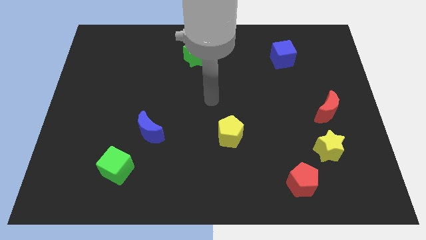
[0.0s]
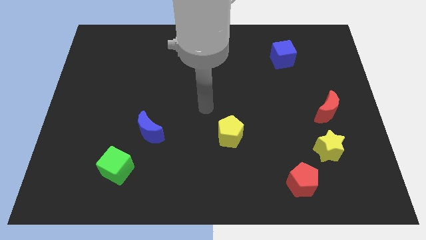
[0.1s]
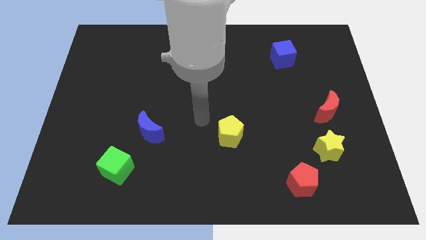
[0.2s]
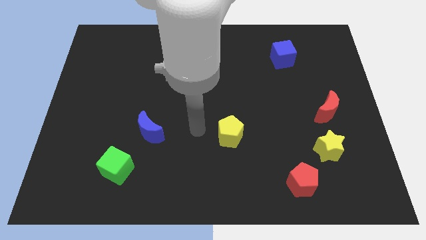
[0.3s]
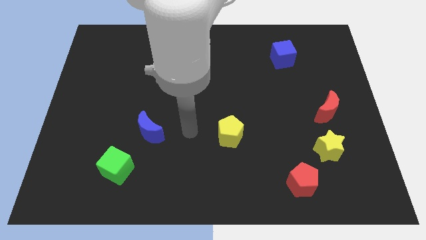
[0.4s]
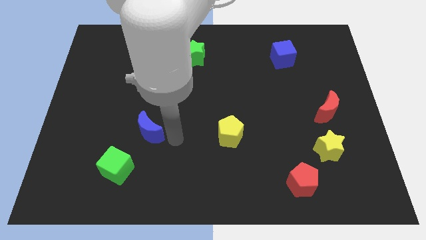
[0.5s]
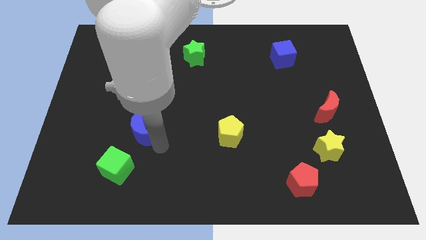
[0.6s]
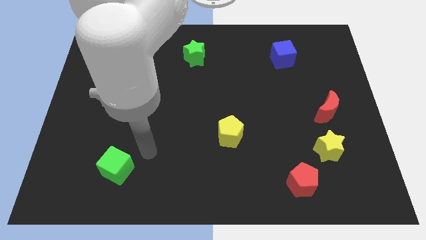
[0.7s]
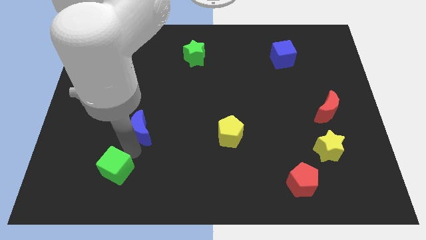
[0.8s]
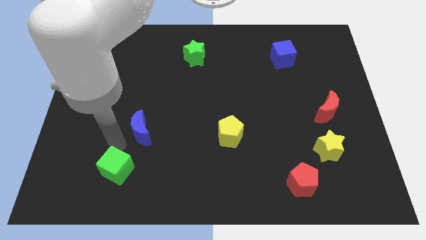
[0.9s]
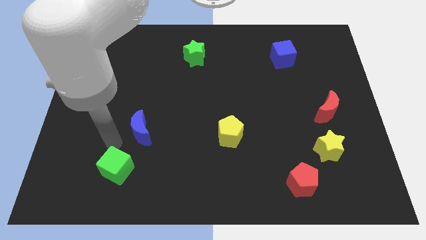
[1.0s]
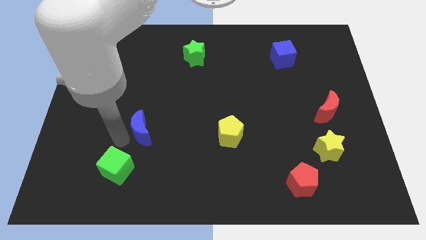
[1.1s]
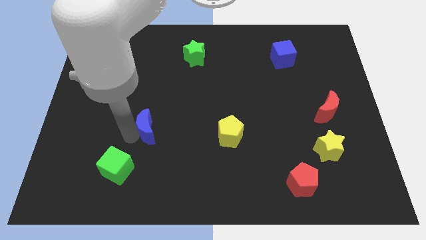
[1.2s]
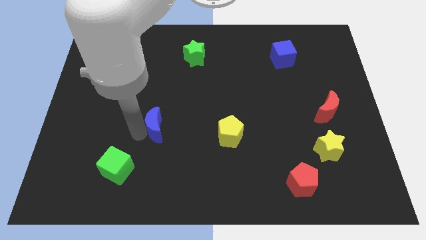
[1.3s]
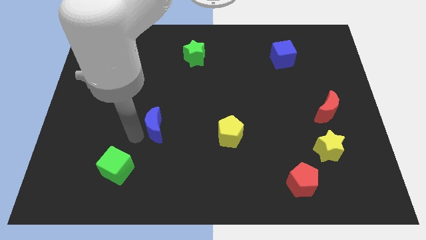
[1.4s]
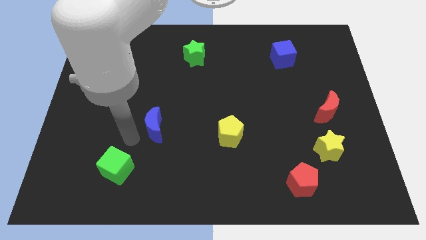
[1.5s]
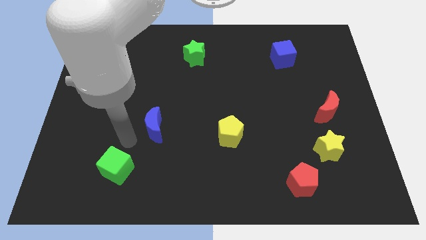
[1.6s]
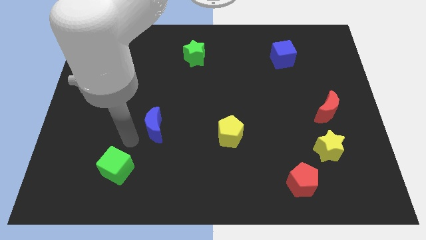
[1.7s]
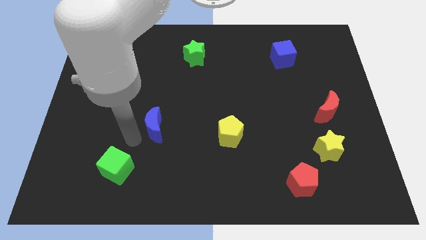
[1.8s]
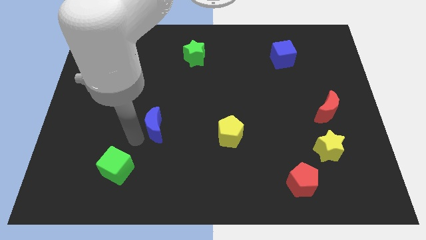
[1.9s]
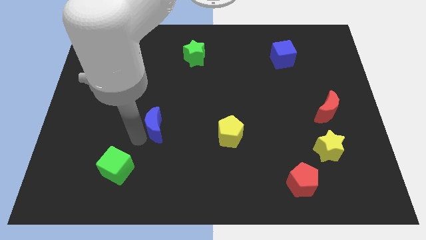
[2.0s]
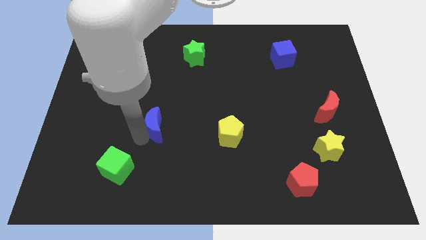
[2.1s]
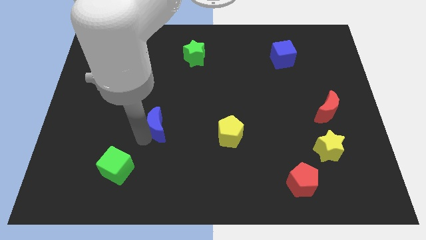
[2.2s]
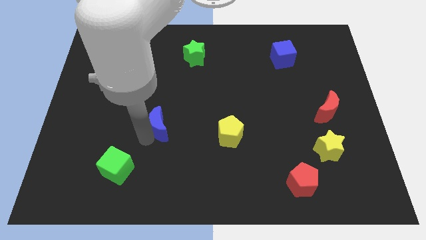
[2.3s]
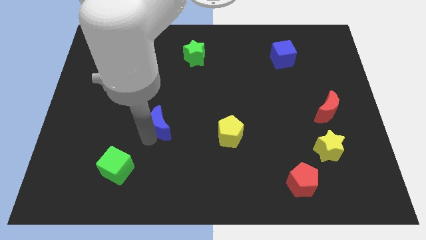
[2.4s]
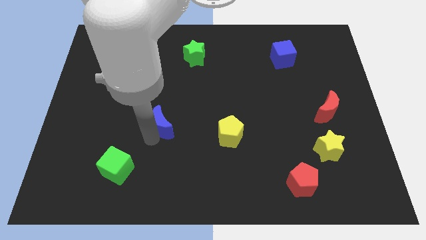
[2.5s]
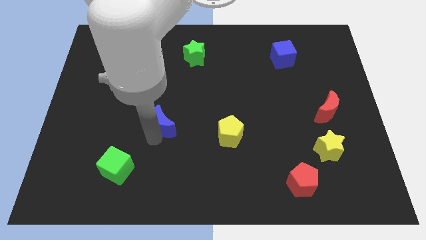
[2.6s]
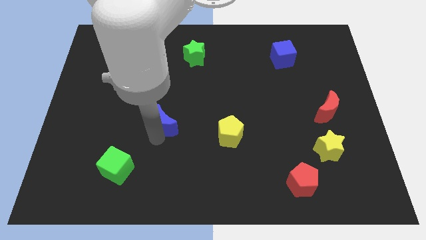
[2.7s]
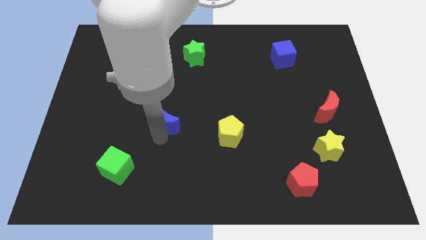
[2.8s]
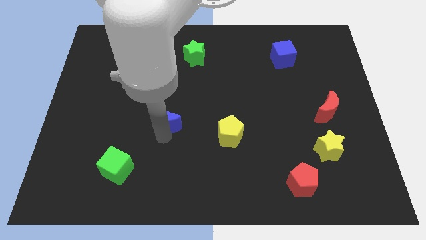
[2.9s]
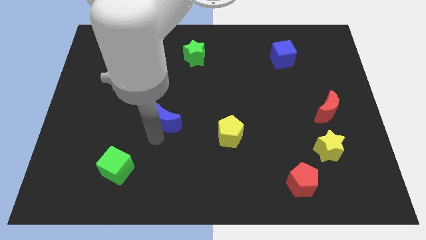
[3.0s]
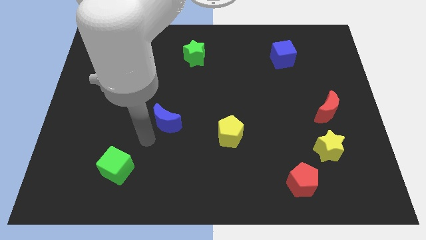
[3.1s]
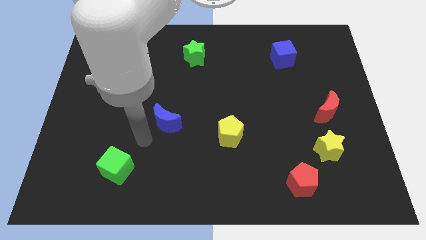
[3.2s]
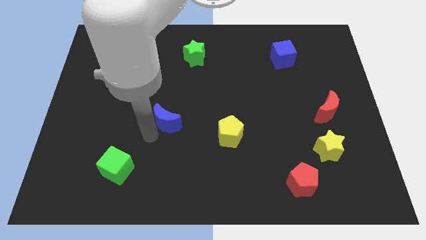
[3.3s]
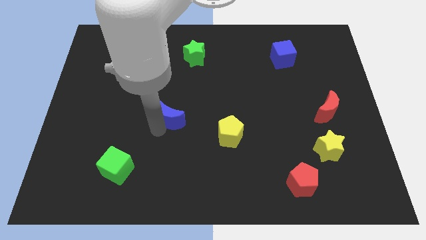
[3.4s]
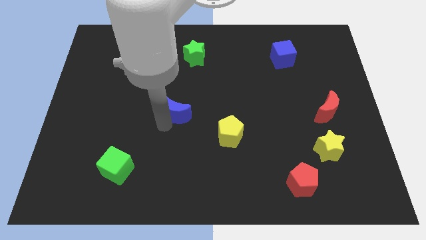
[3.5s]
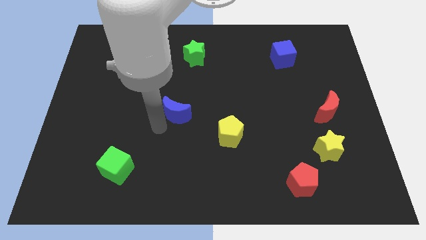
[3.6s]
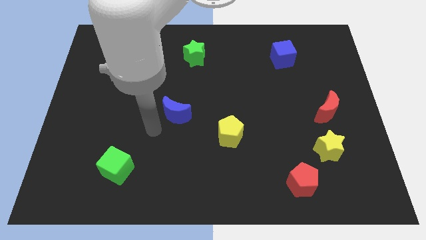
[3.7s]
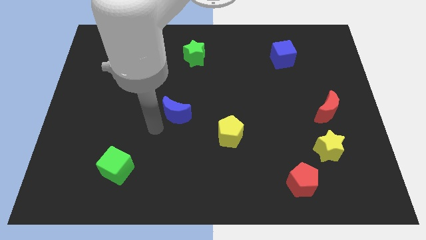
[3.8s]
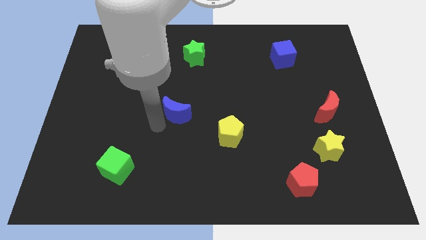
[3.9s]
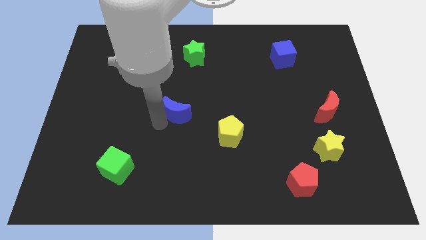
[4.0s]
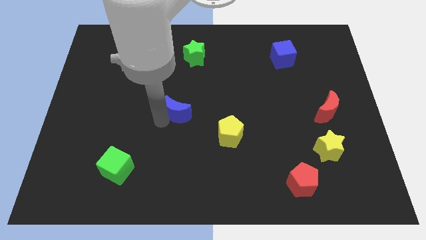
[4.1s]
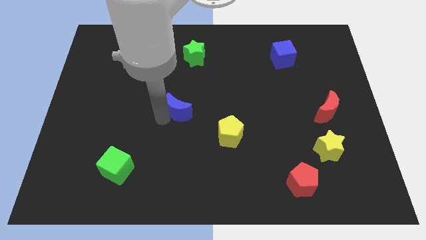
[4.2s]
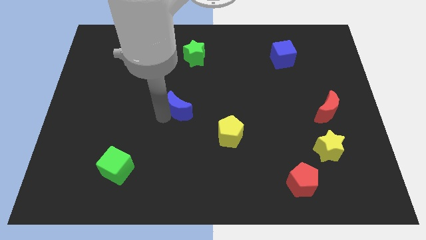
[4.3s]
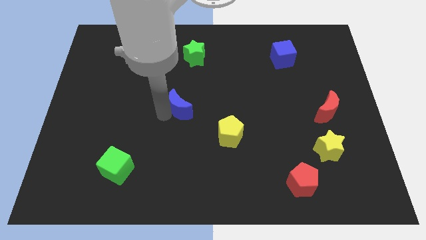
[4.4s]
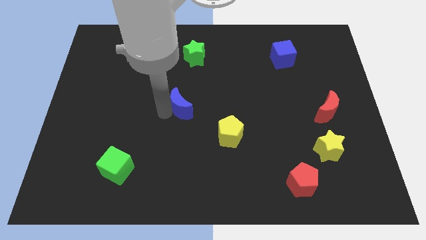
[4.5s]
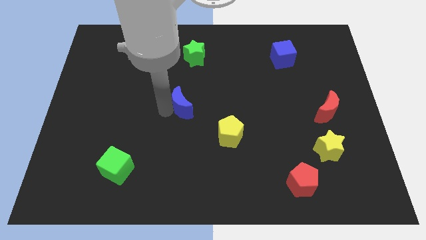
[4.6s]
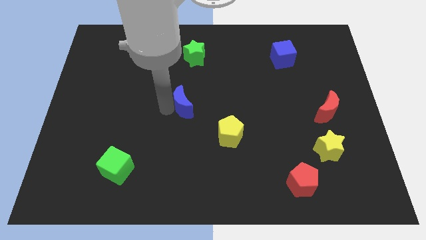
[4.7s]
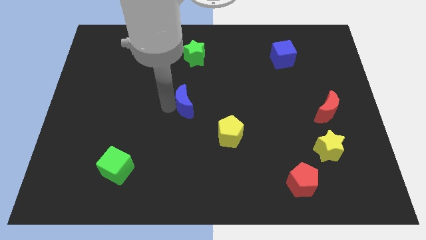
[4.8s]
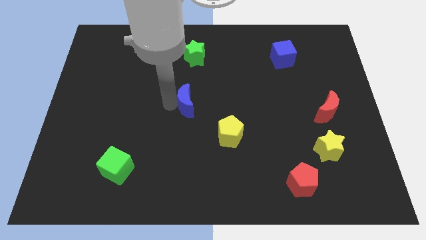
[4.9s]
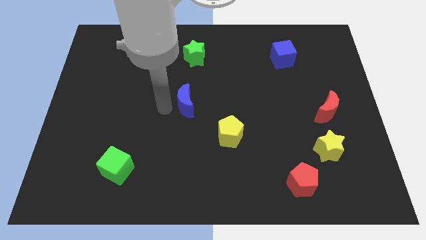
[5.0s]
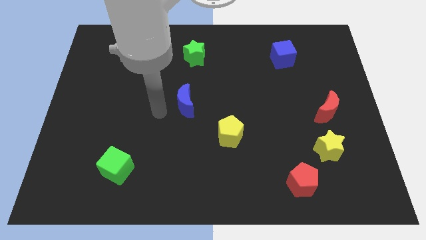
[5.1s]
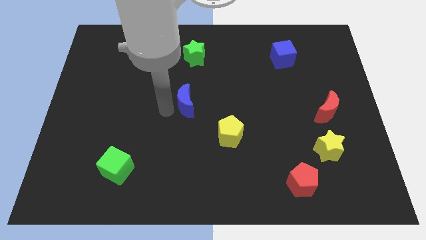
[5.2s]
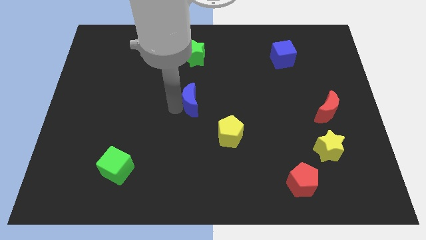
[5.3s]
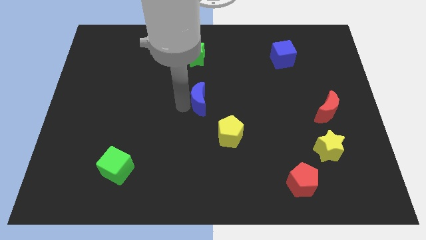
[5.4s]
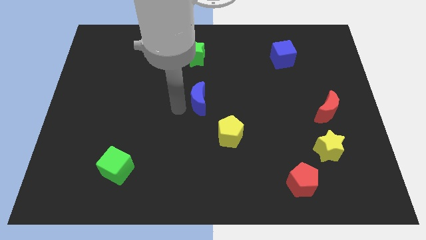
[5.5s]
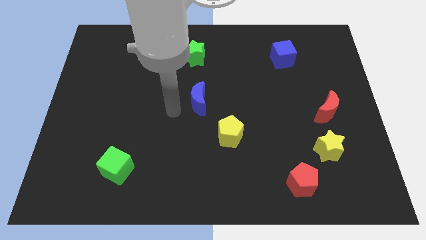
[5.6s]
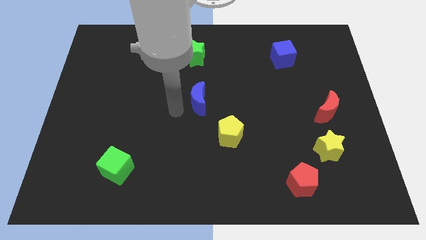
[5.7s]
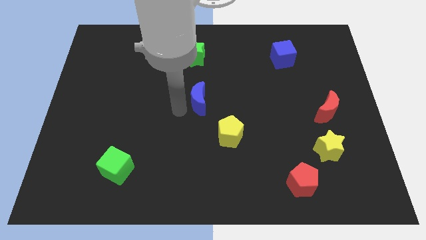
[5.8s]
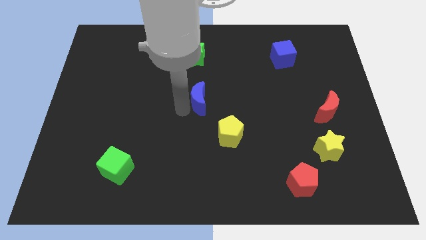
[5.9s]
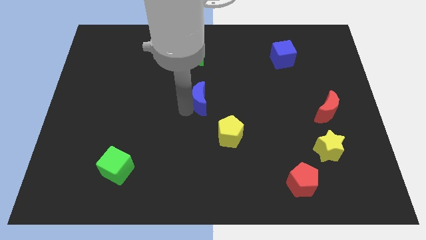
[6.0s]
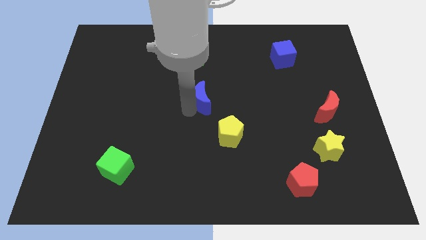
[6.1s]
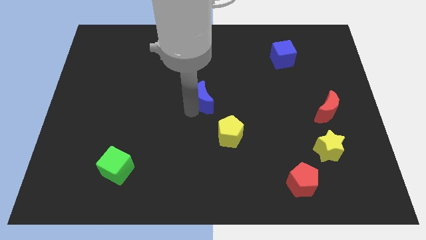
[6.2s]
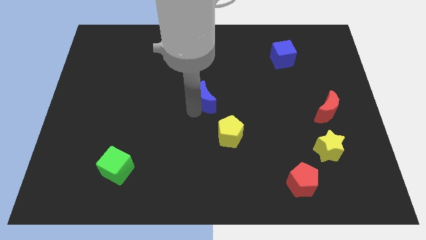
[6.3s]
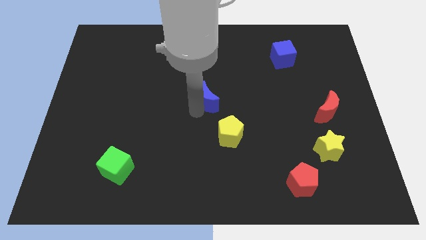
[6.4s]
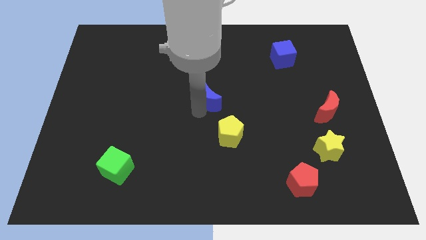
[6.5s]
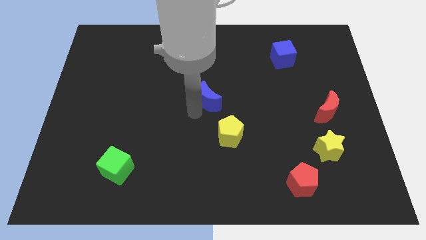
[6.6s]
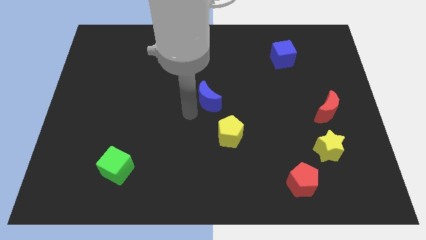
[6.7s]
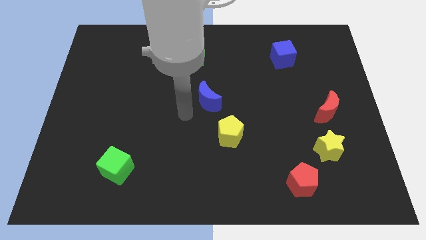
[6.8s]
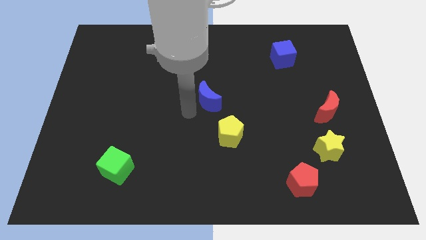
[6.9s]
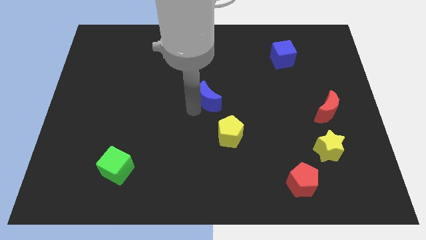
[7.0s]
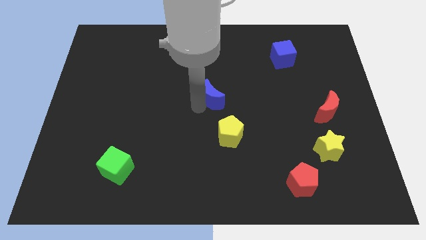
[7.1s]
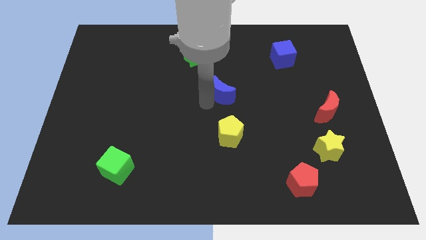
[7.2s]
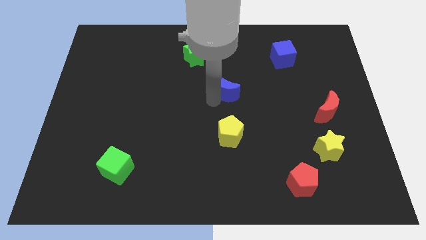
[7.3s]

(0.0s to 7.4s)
push the blue moon up and to the right

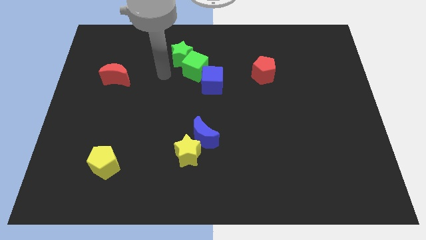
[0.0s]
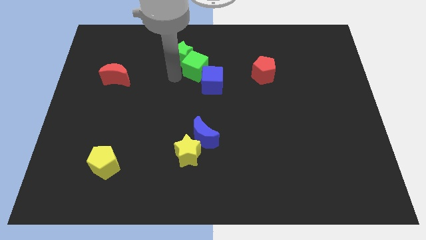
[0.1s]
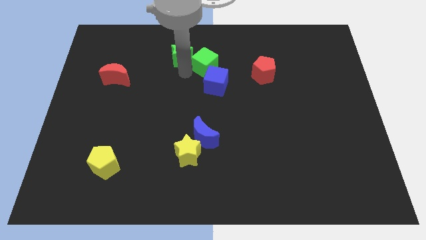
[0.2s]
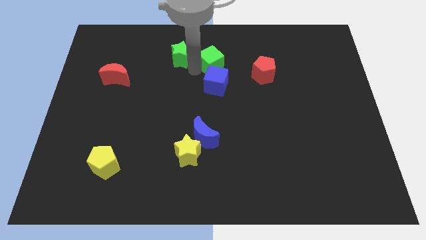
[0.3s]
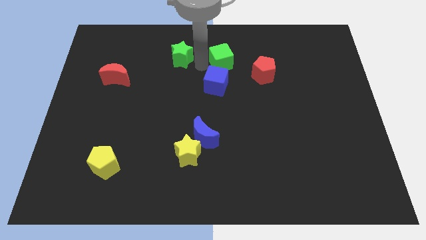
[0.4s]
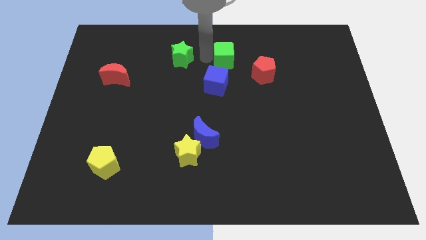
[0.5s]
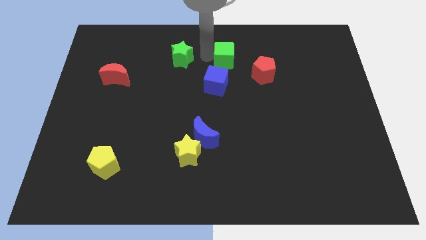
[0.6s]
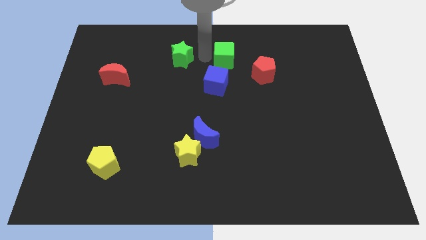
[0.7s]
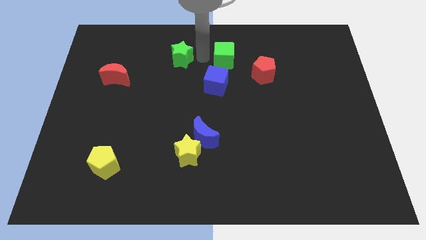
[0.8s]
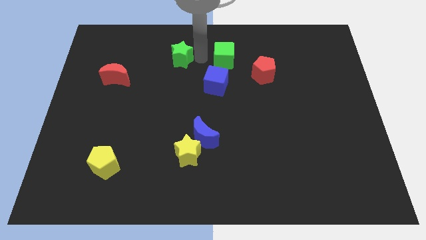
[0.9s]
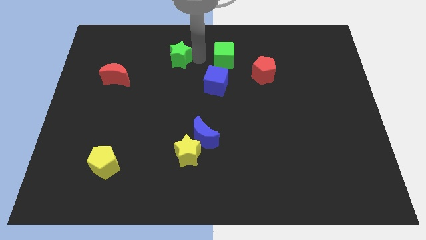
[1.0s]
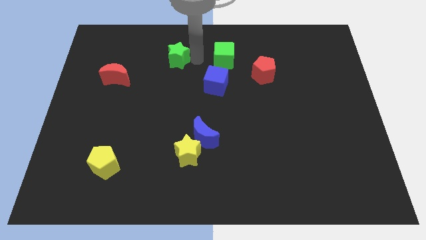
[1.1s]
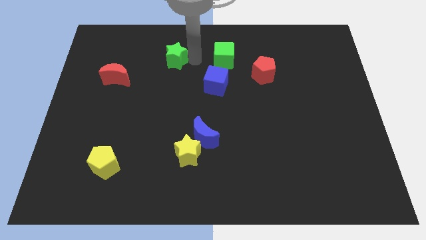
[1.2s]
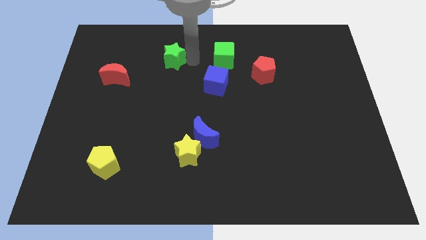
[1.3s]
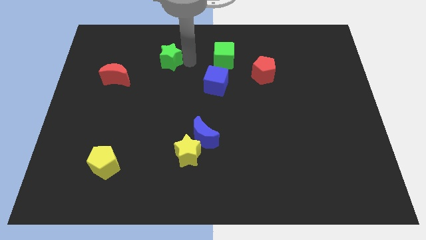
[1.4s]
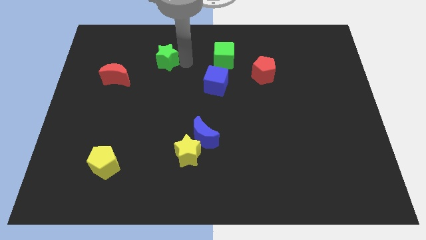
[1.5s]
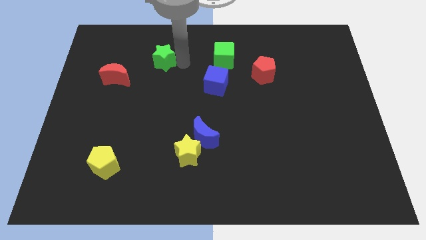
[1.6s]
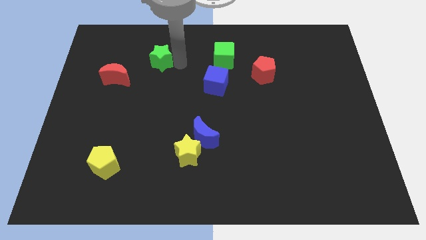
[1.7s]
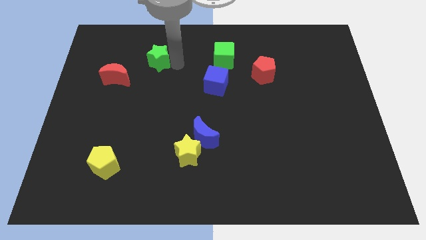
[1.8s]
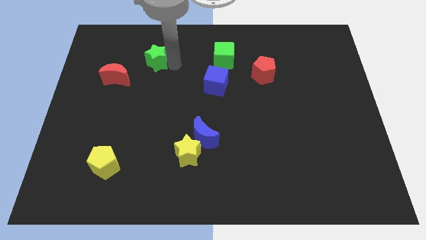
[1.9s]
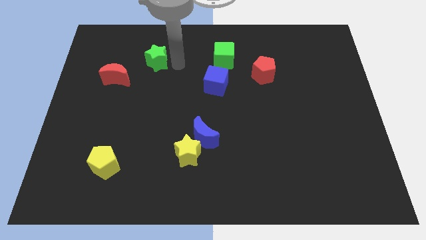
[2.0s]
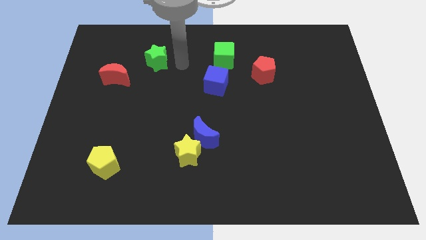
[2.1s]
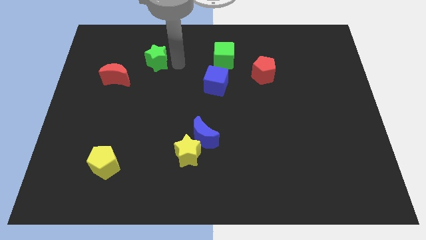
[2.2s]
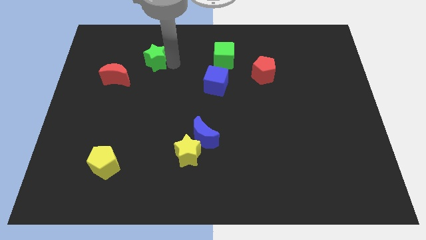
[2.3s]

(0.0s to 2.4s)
slightly push the green star to the left
